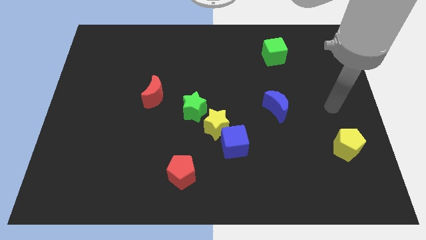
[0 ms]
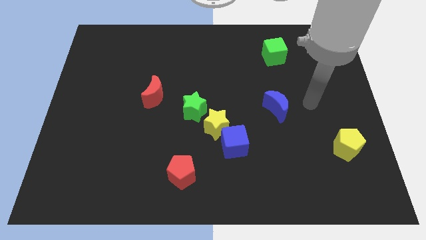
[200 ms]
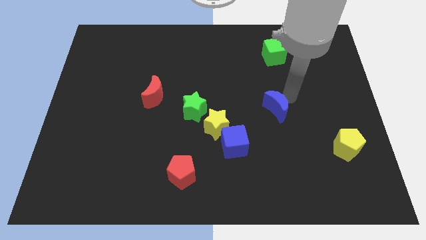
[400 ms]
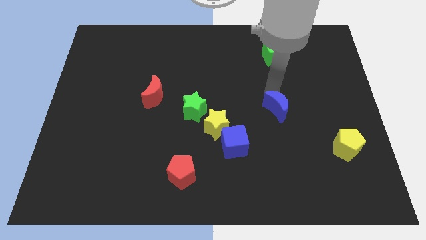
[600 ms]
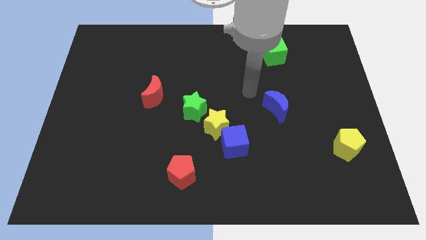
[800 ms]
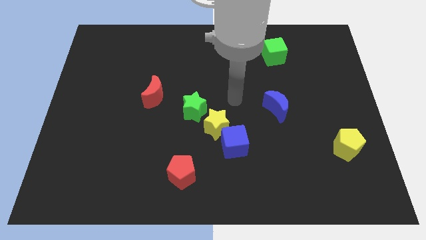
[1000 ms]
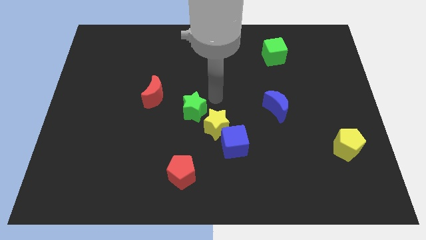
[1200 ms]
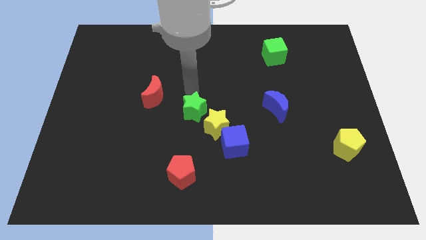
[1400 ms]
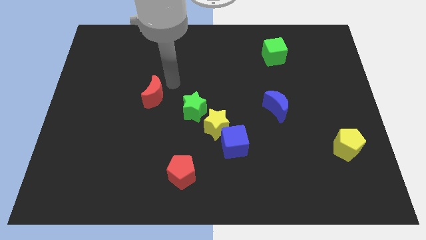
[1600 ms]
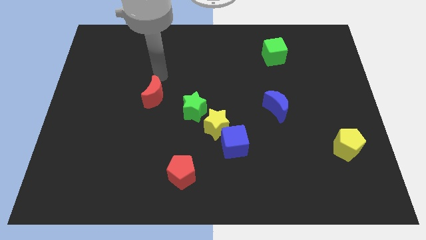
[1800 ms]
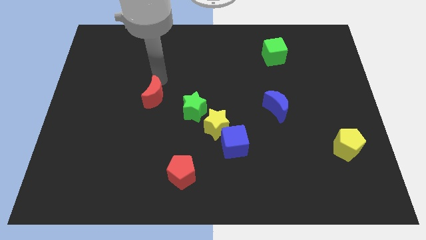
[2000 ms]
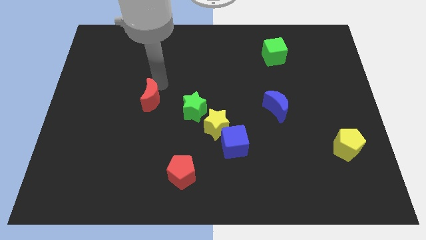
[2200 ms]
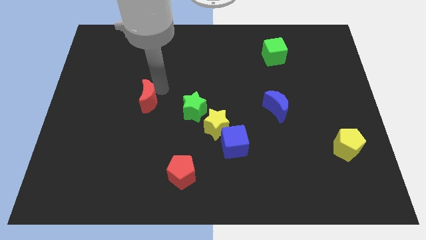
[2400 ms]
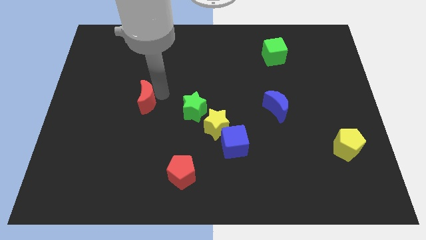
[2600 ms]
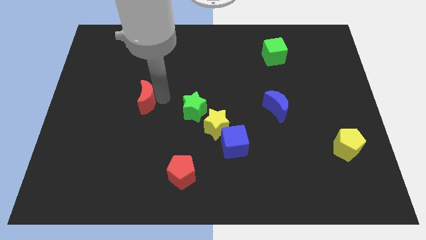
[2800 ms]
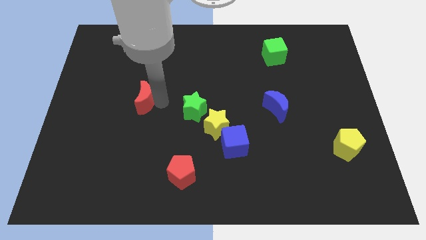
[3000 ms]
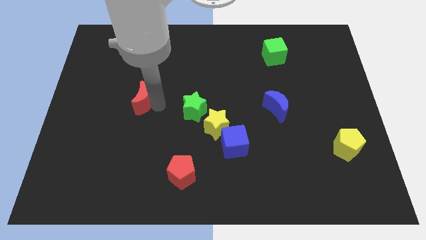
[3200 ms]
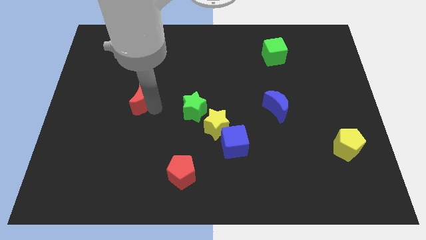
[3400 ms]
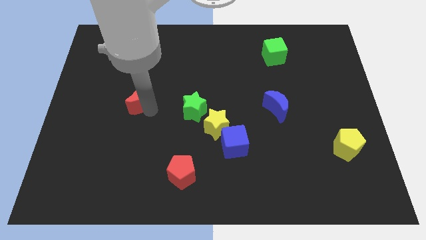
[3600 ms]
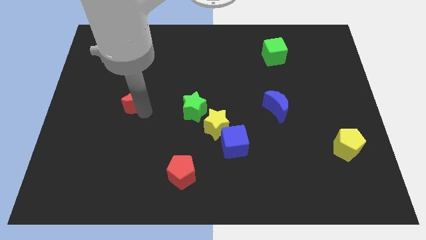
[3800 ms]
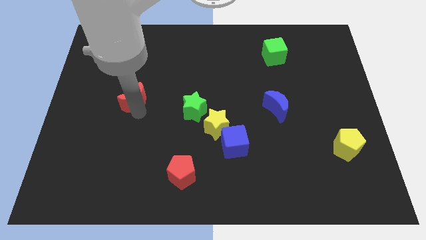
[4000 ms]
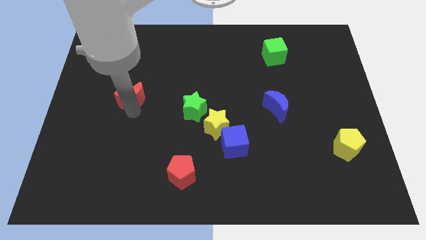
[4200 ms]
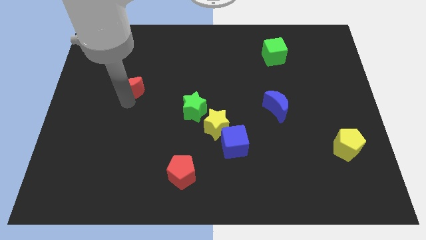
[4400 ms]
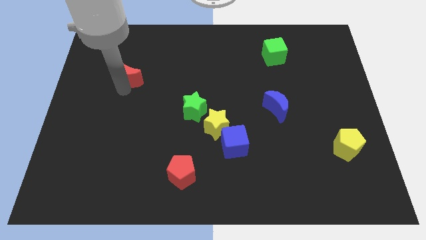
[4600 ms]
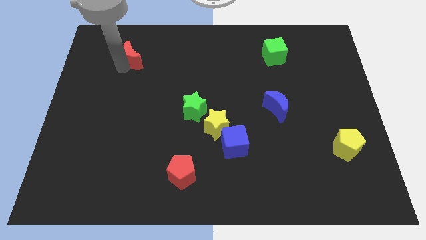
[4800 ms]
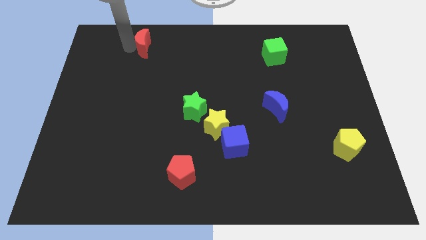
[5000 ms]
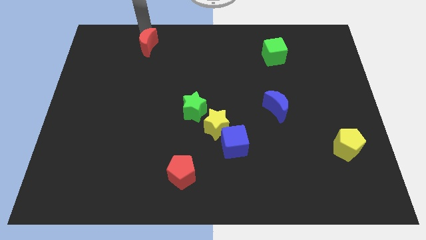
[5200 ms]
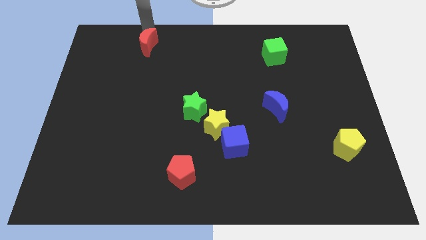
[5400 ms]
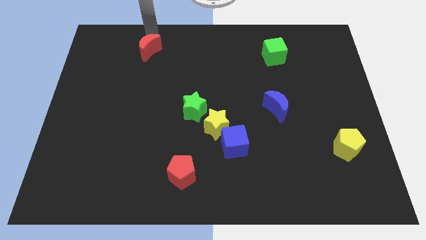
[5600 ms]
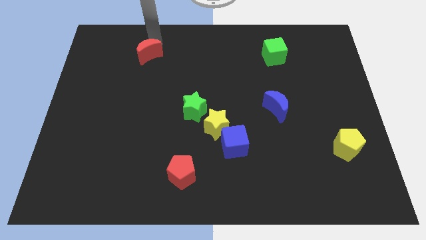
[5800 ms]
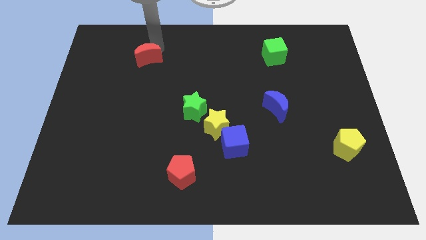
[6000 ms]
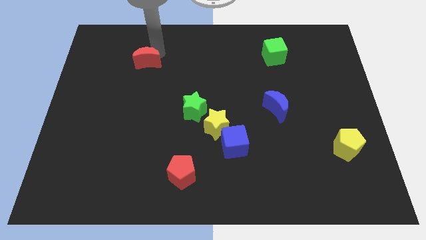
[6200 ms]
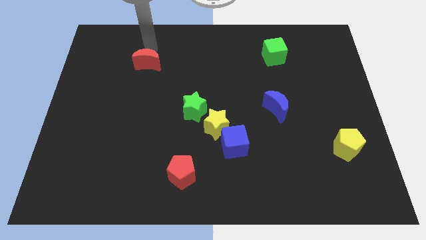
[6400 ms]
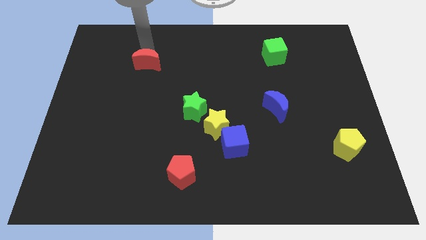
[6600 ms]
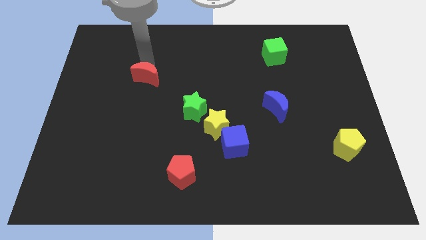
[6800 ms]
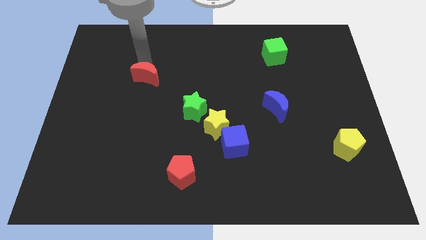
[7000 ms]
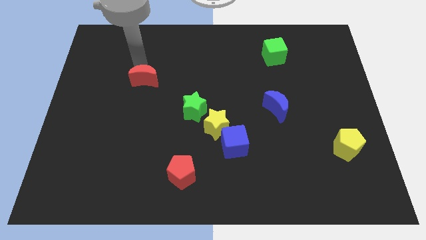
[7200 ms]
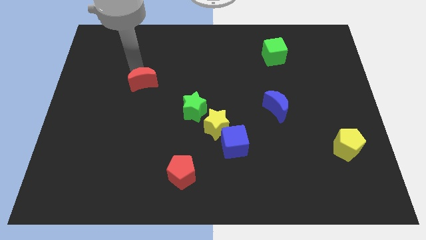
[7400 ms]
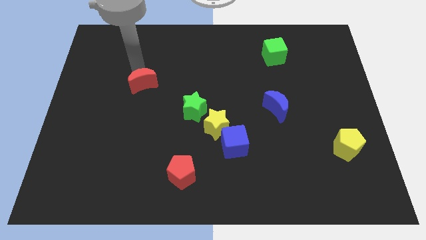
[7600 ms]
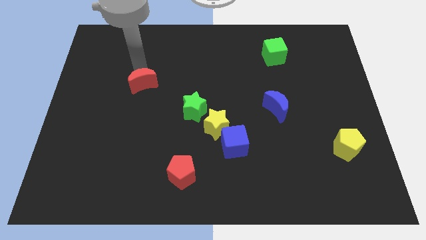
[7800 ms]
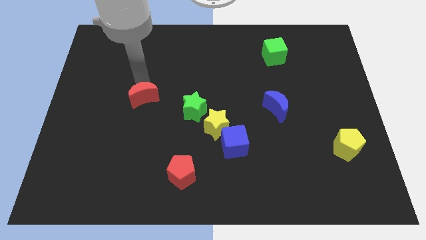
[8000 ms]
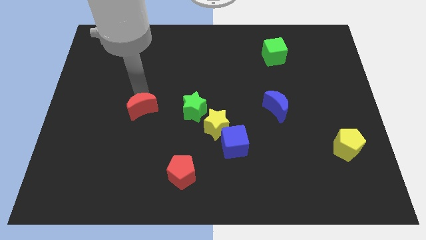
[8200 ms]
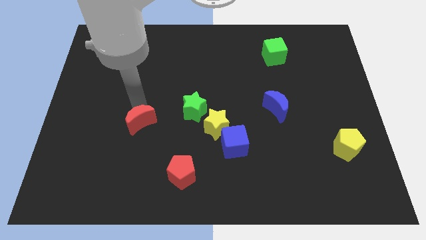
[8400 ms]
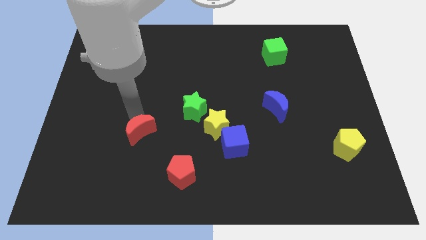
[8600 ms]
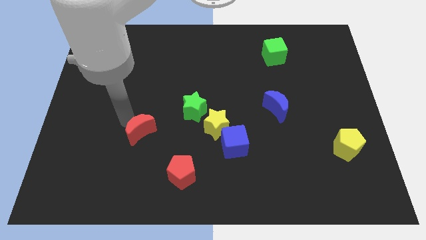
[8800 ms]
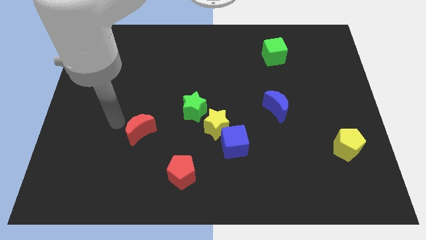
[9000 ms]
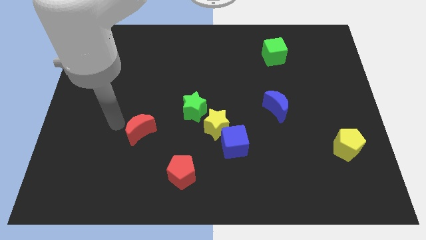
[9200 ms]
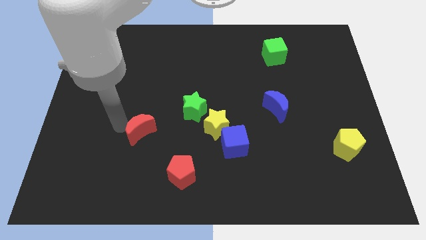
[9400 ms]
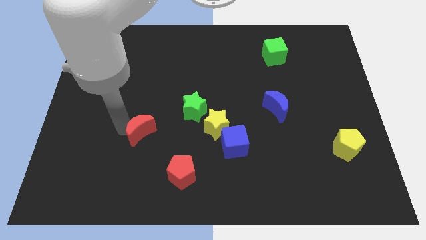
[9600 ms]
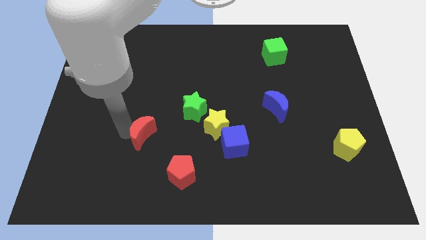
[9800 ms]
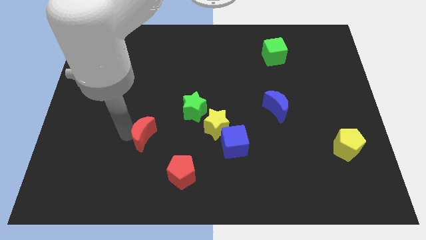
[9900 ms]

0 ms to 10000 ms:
put the red moon to the top left side of the red pentagon

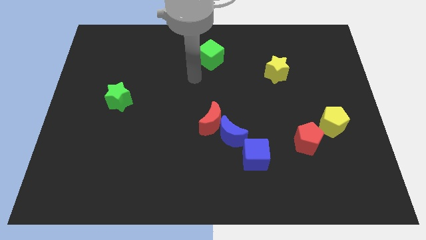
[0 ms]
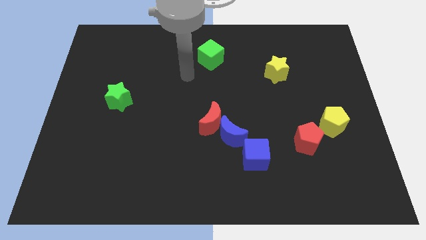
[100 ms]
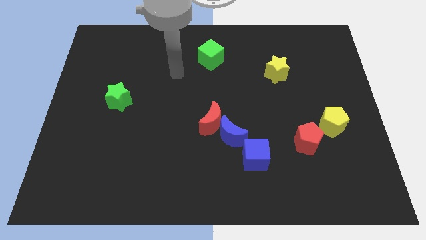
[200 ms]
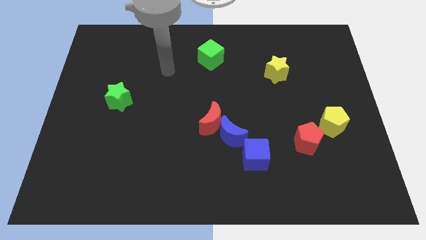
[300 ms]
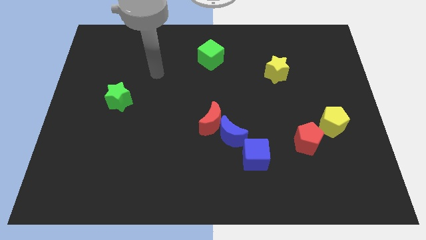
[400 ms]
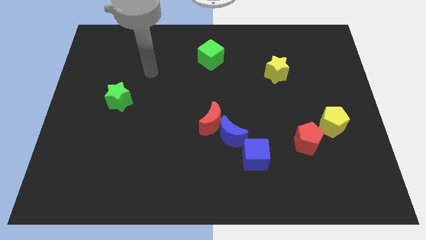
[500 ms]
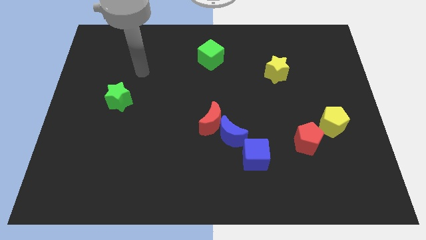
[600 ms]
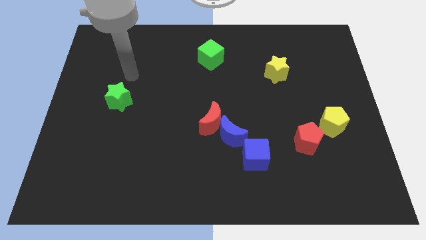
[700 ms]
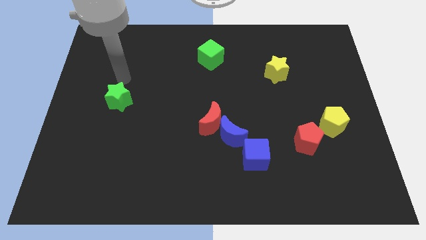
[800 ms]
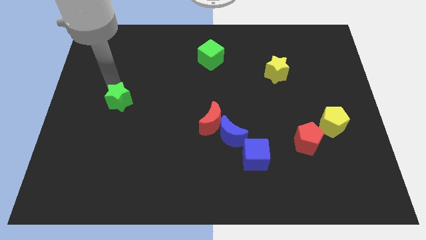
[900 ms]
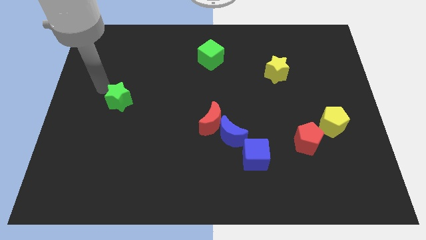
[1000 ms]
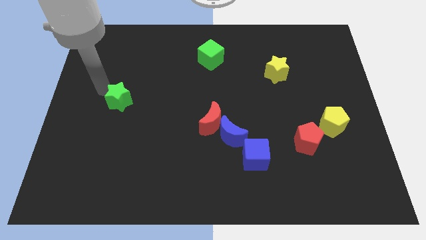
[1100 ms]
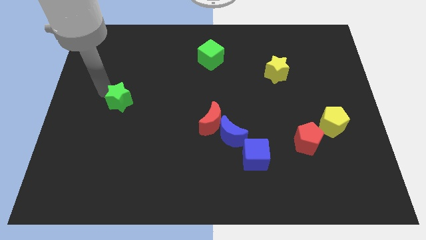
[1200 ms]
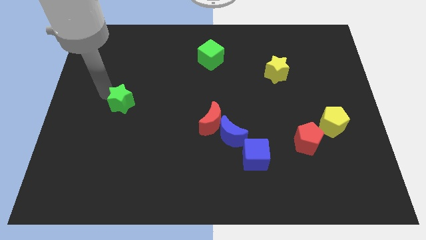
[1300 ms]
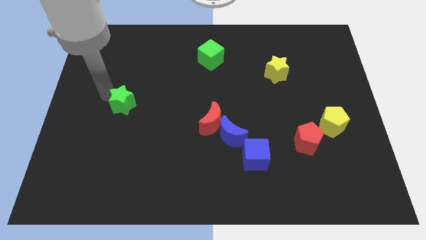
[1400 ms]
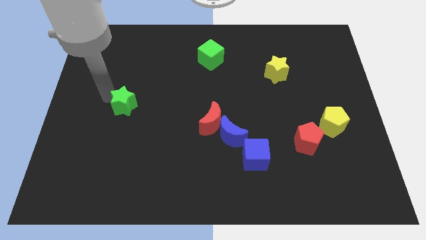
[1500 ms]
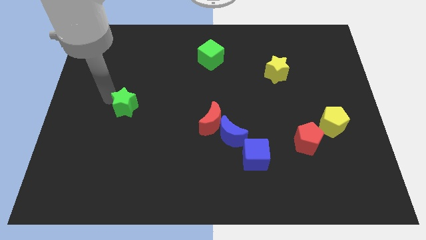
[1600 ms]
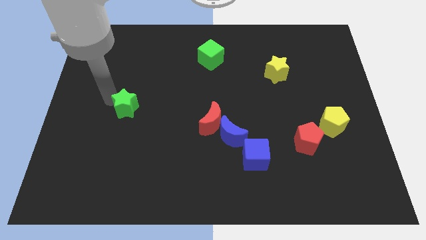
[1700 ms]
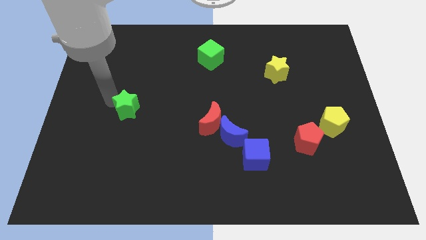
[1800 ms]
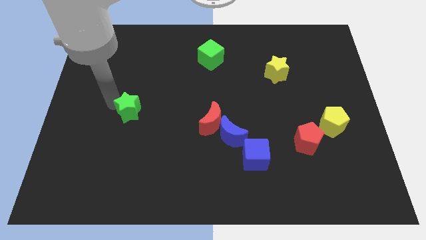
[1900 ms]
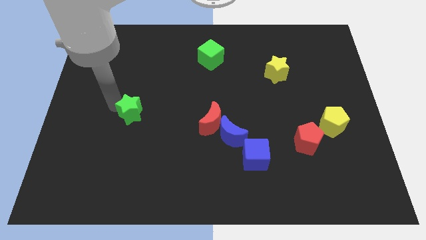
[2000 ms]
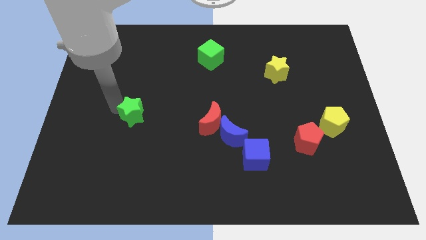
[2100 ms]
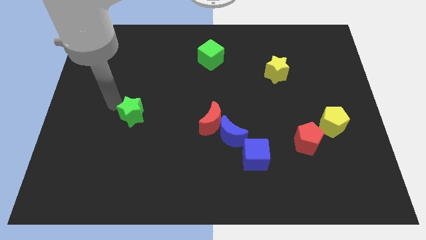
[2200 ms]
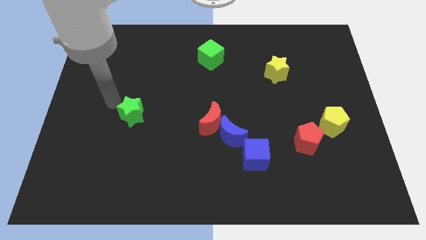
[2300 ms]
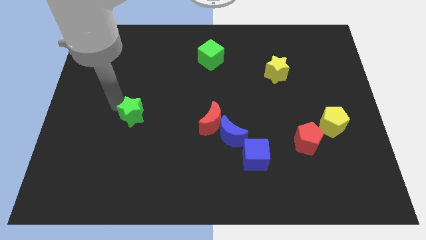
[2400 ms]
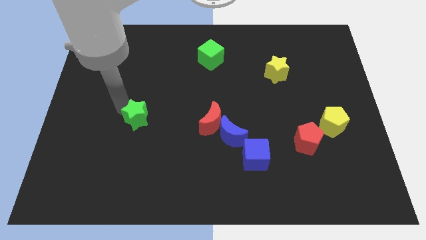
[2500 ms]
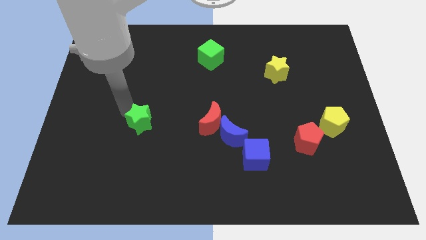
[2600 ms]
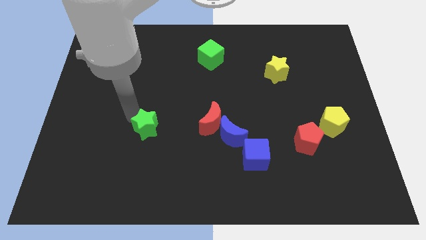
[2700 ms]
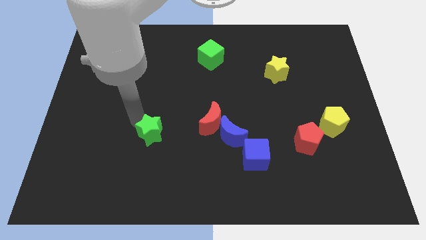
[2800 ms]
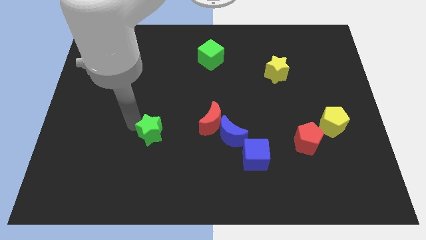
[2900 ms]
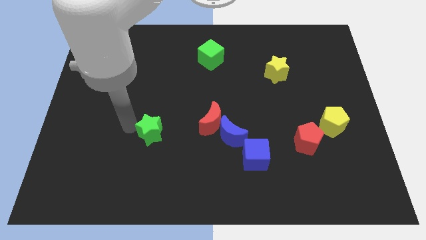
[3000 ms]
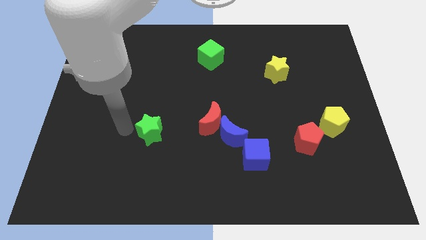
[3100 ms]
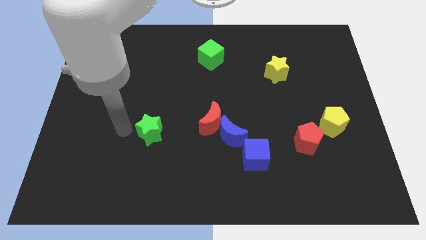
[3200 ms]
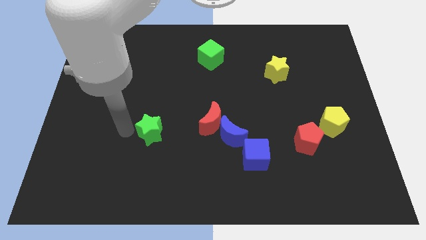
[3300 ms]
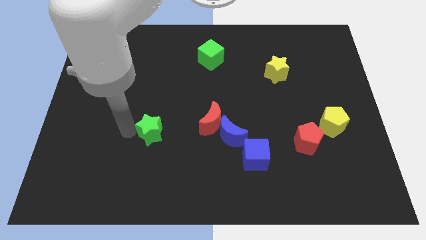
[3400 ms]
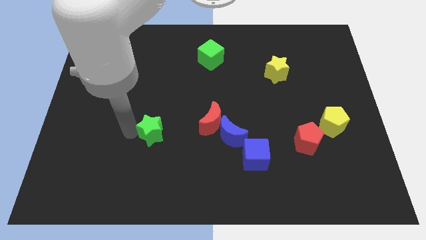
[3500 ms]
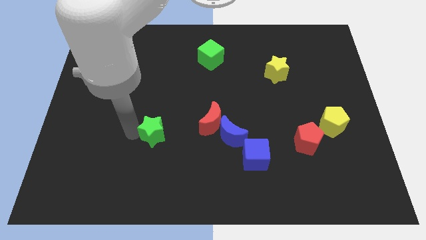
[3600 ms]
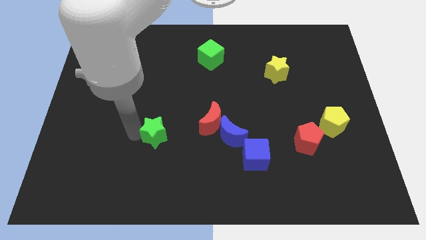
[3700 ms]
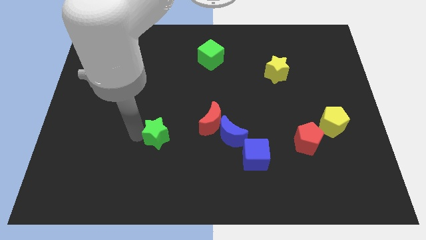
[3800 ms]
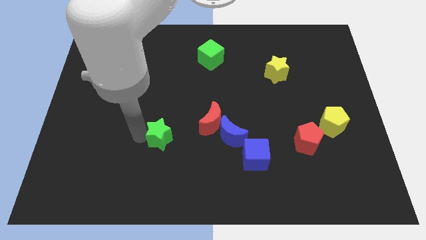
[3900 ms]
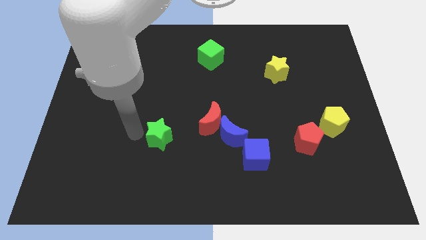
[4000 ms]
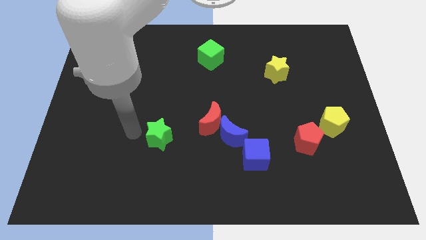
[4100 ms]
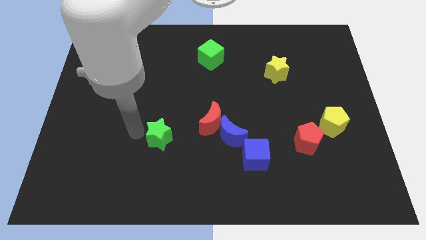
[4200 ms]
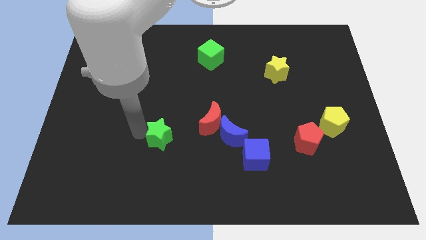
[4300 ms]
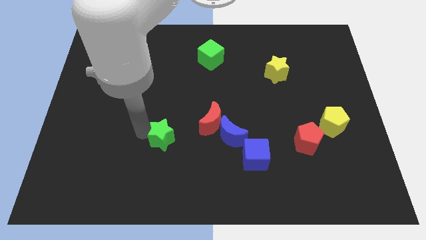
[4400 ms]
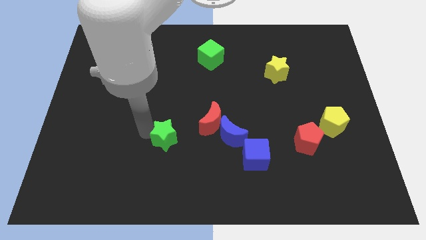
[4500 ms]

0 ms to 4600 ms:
move the green star to the bottom left side of the red moon
